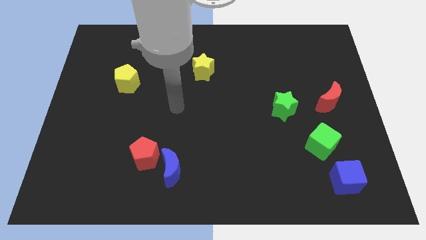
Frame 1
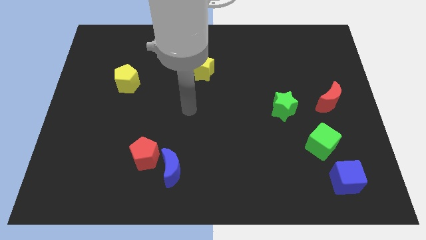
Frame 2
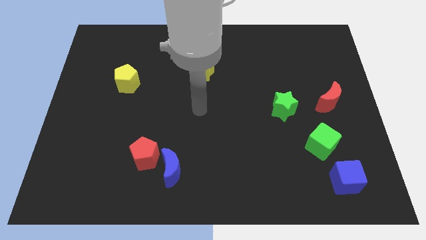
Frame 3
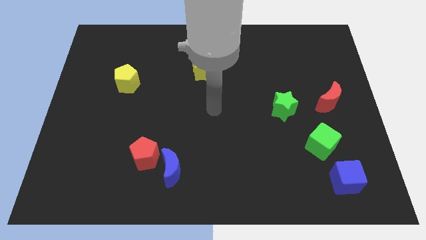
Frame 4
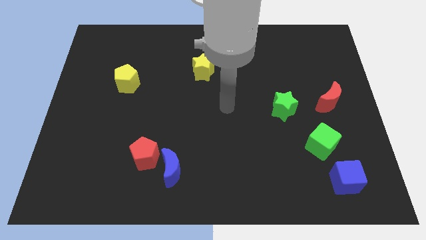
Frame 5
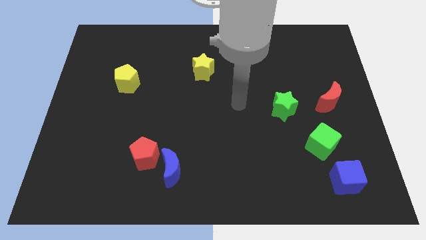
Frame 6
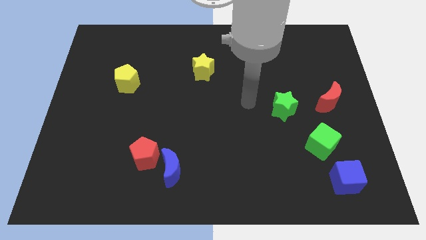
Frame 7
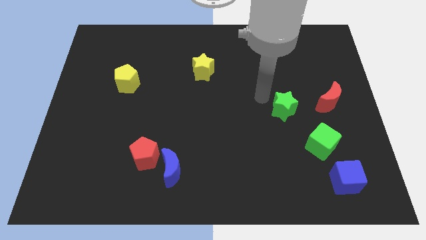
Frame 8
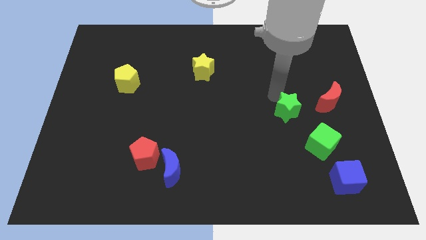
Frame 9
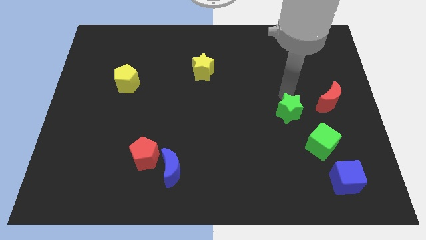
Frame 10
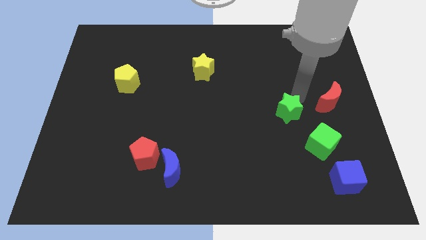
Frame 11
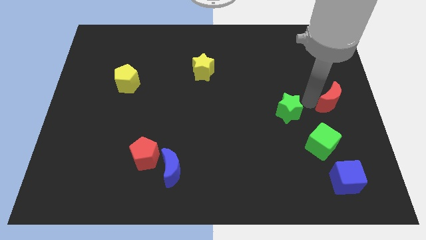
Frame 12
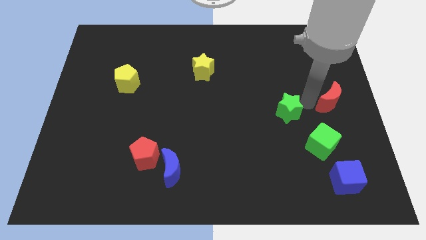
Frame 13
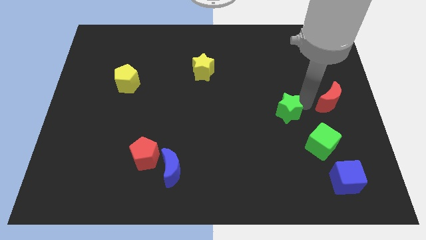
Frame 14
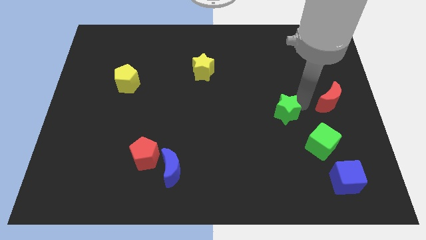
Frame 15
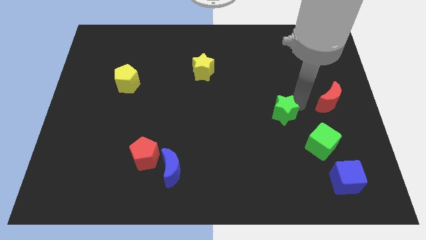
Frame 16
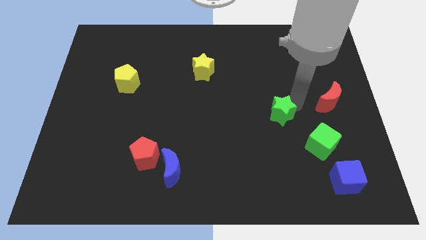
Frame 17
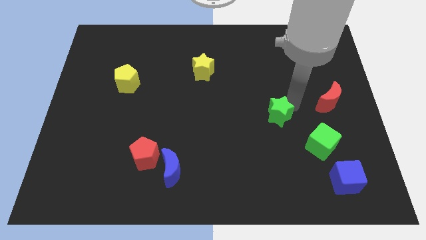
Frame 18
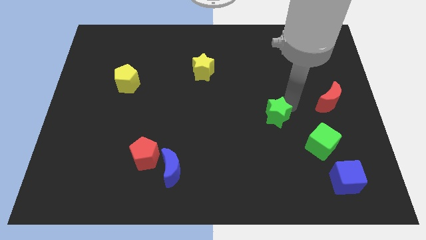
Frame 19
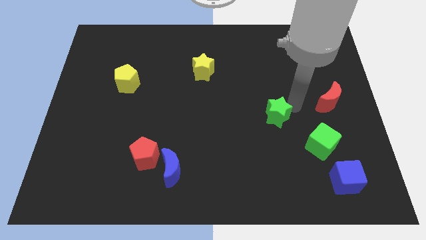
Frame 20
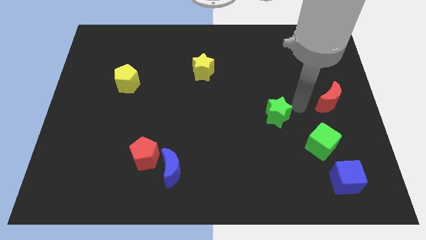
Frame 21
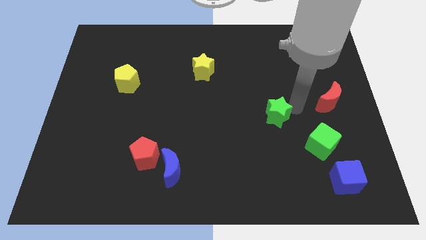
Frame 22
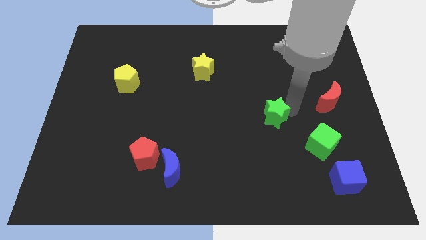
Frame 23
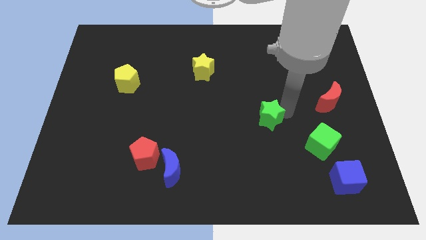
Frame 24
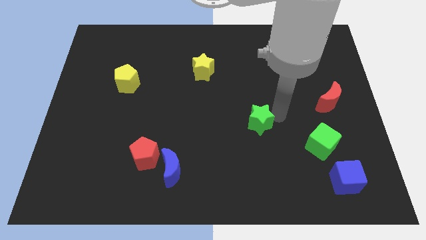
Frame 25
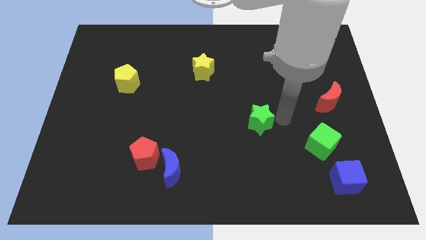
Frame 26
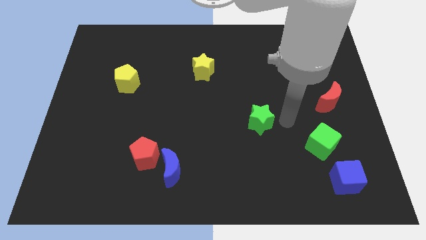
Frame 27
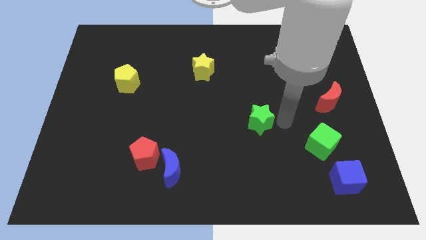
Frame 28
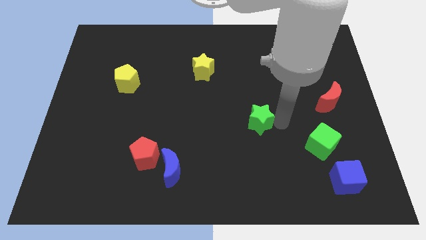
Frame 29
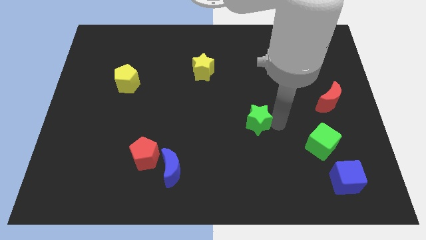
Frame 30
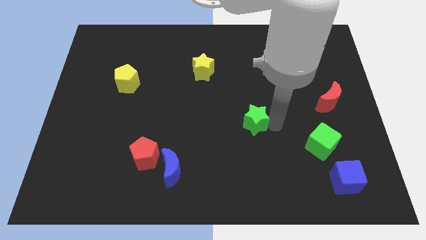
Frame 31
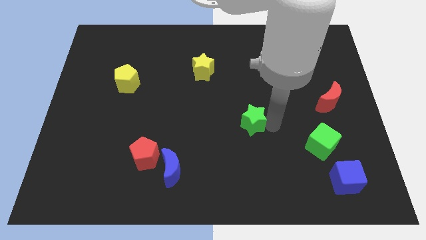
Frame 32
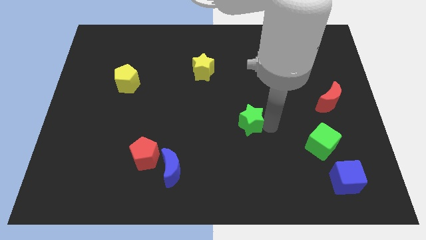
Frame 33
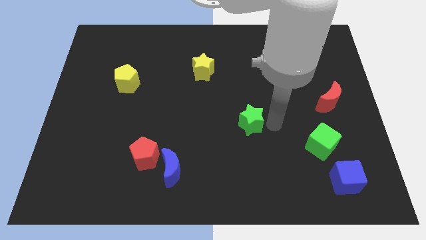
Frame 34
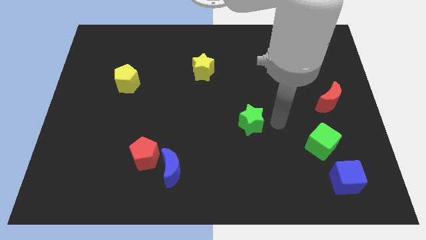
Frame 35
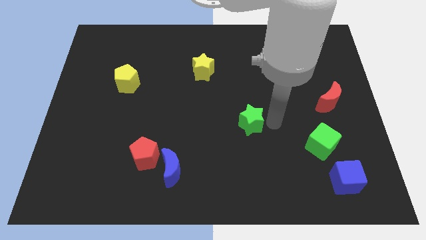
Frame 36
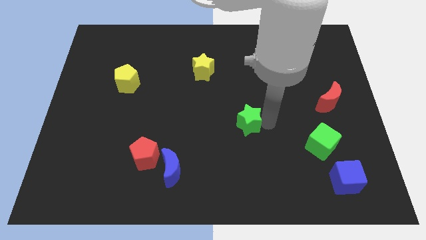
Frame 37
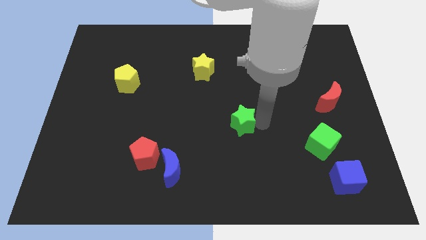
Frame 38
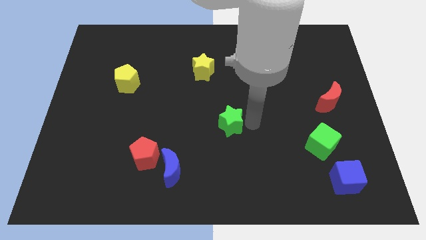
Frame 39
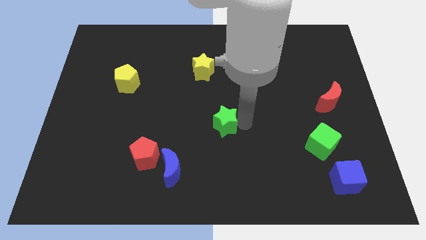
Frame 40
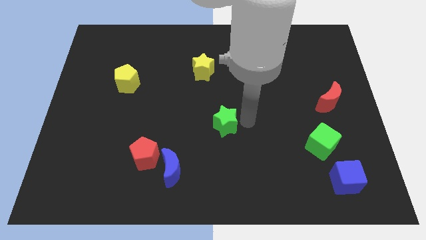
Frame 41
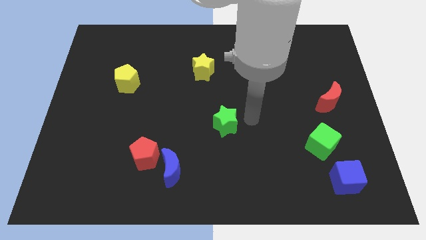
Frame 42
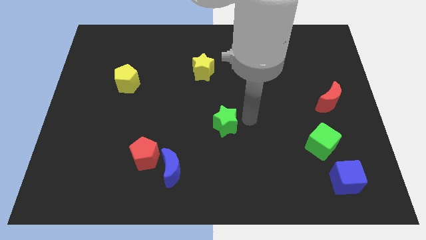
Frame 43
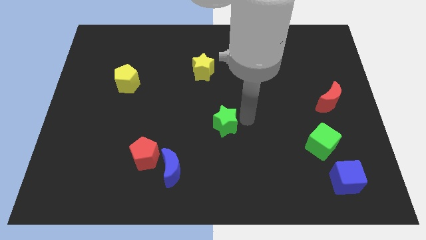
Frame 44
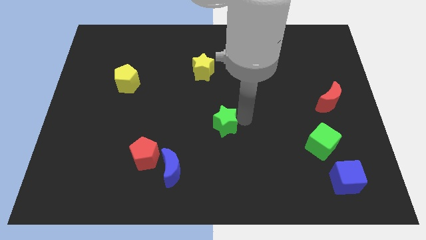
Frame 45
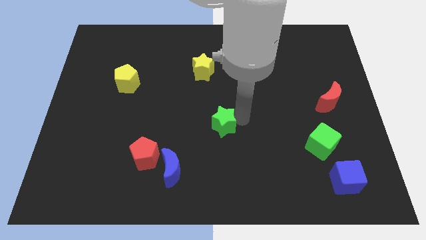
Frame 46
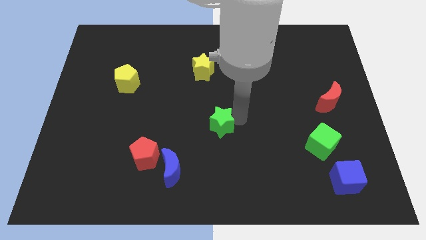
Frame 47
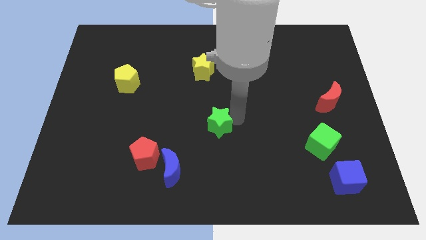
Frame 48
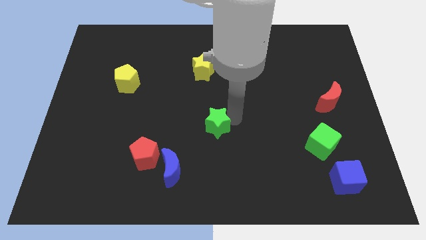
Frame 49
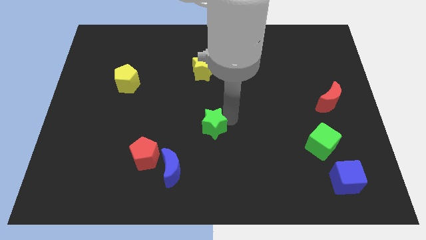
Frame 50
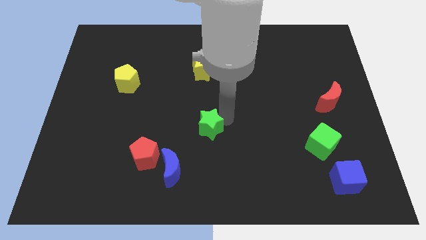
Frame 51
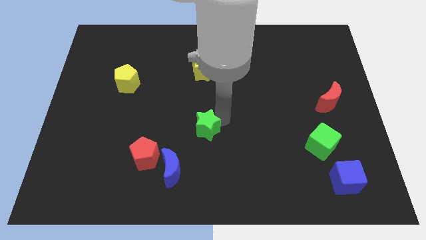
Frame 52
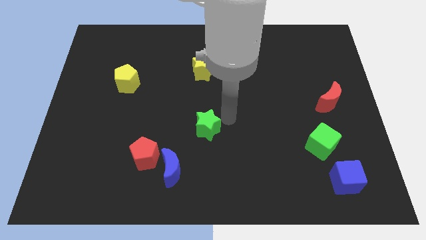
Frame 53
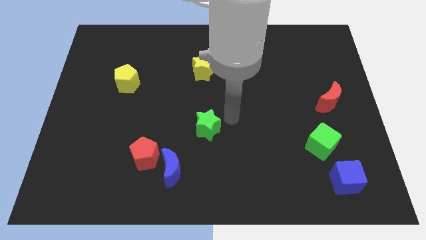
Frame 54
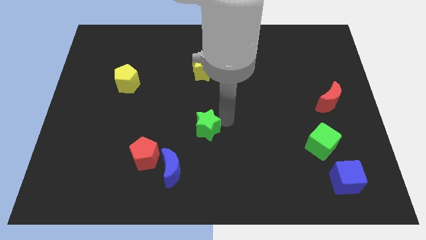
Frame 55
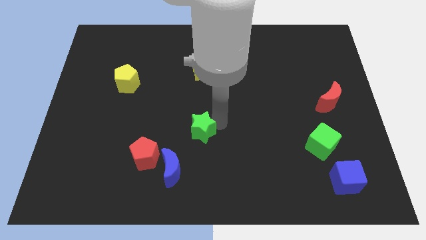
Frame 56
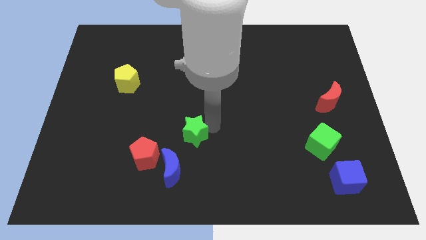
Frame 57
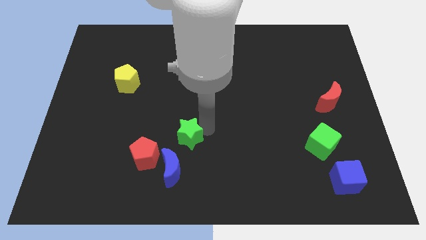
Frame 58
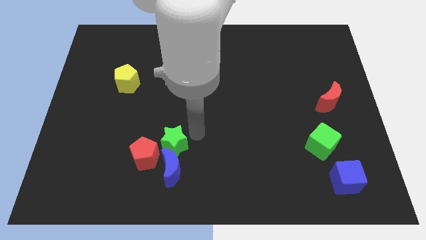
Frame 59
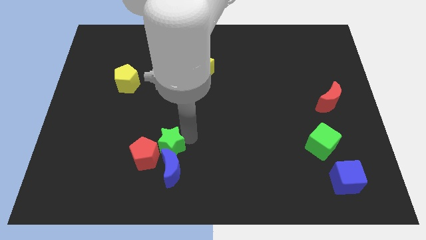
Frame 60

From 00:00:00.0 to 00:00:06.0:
move the green star towards the red pentagon

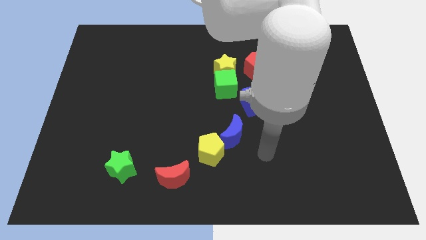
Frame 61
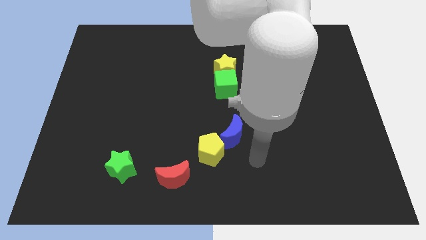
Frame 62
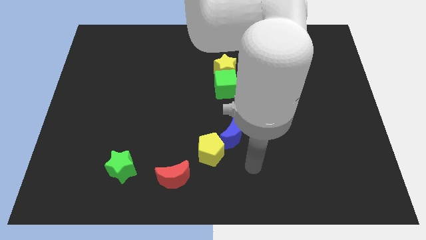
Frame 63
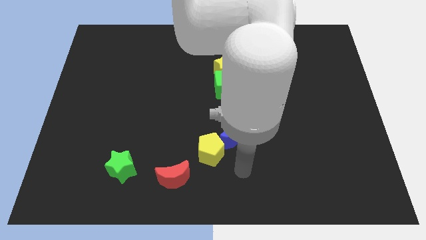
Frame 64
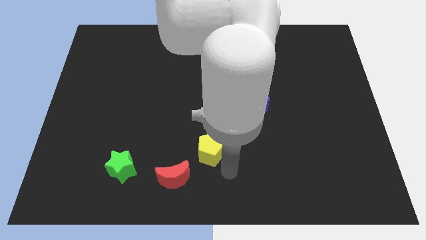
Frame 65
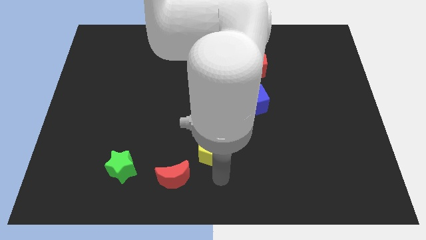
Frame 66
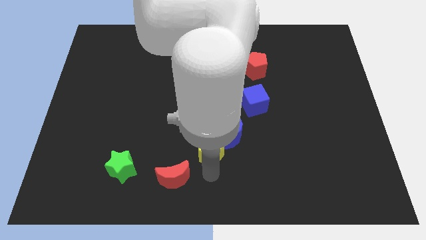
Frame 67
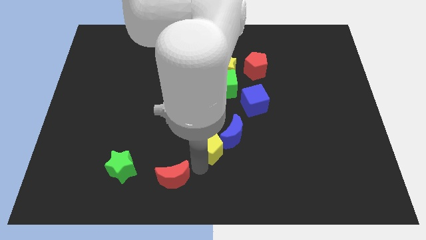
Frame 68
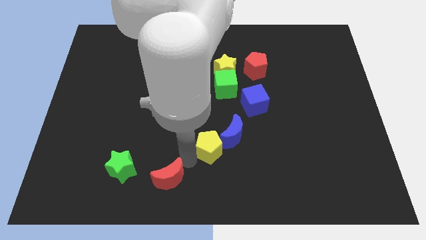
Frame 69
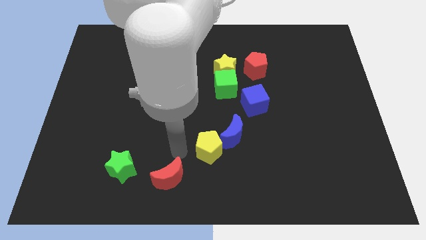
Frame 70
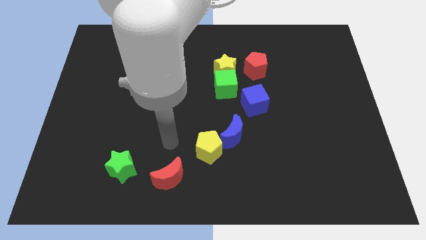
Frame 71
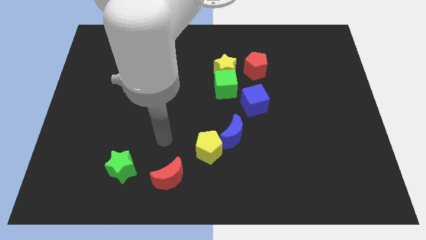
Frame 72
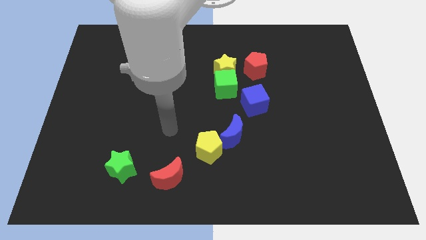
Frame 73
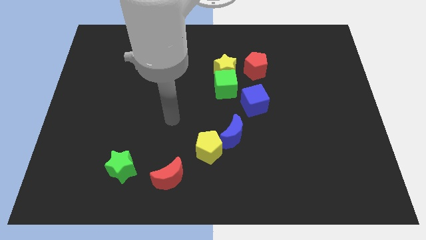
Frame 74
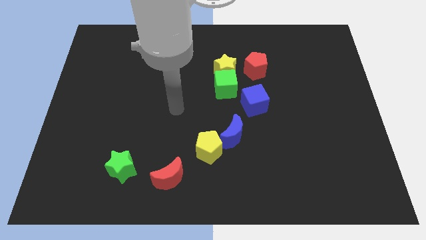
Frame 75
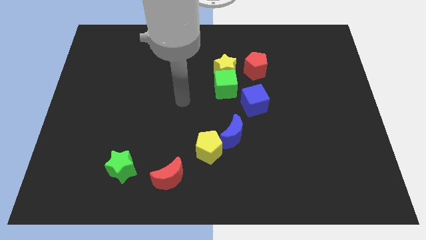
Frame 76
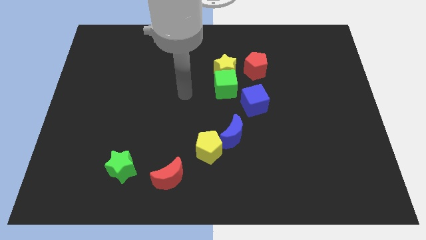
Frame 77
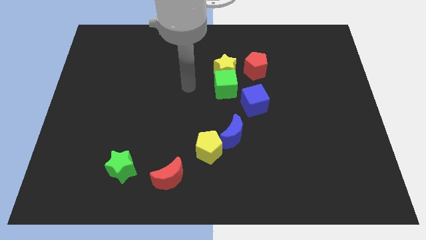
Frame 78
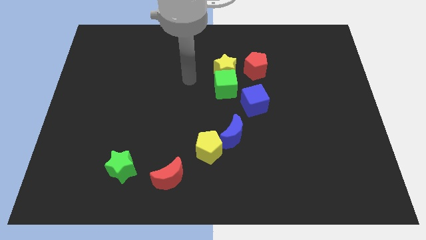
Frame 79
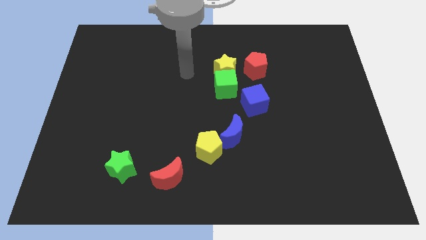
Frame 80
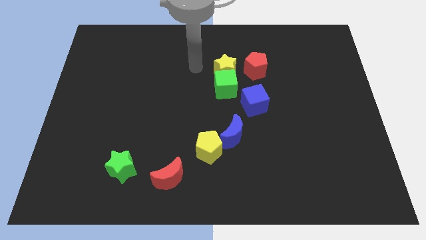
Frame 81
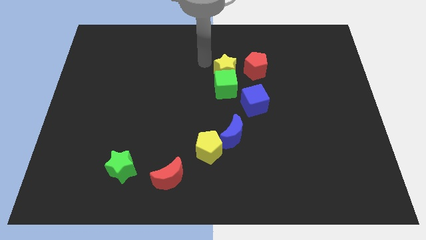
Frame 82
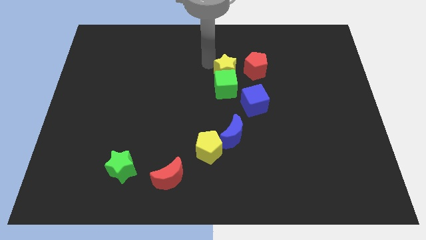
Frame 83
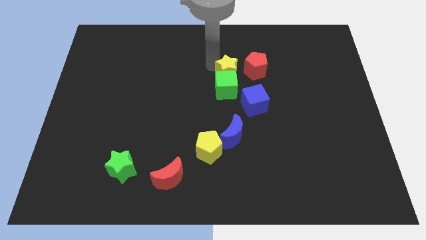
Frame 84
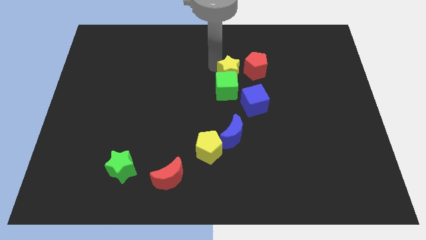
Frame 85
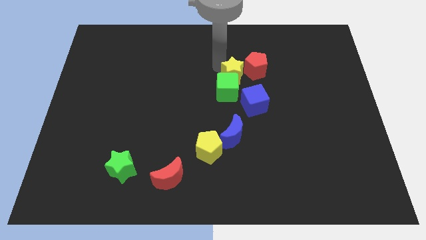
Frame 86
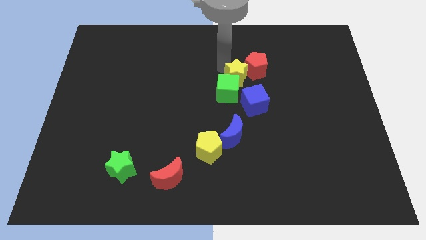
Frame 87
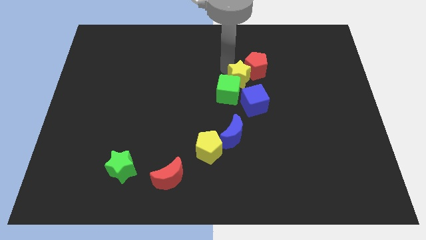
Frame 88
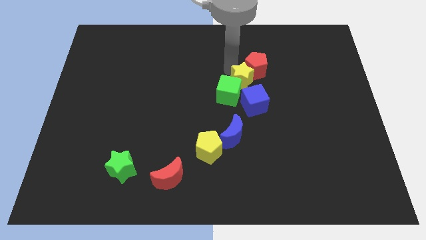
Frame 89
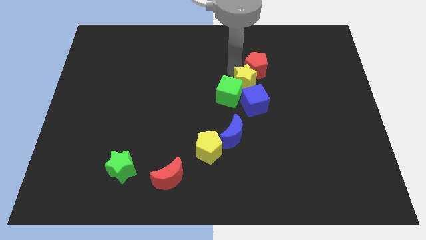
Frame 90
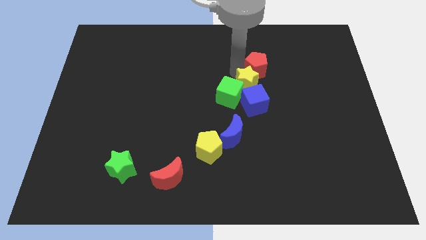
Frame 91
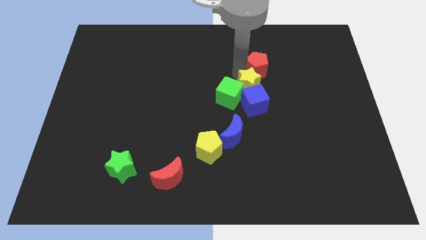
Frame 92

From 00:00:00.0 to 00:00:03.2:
put the yellow star close to the blue cube
